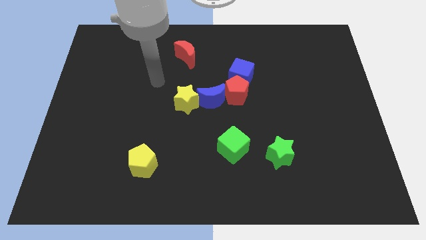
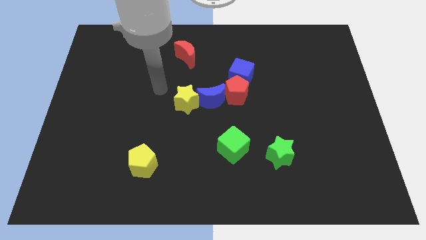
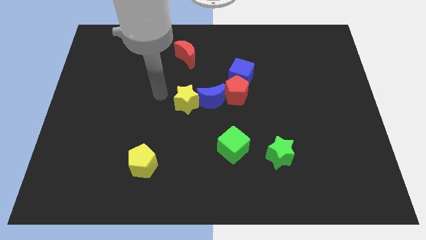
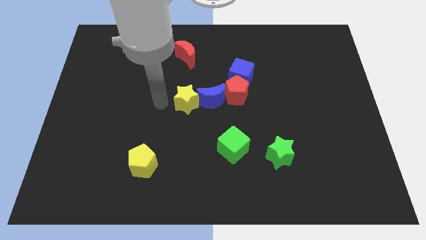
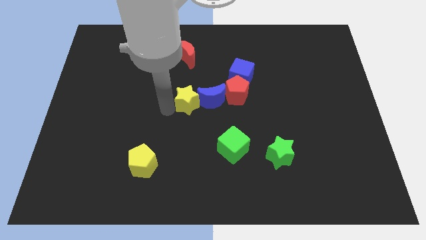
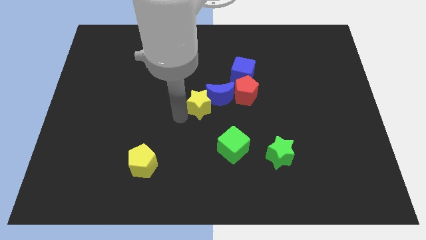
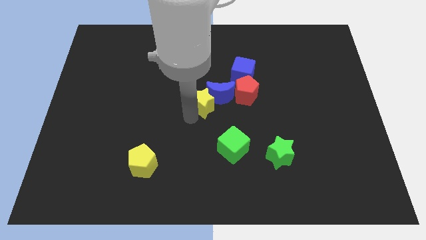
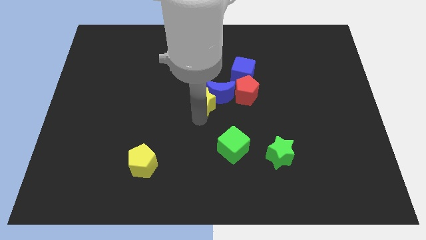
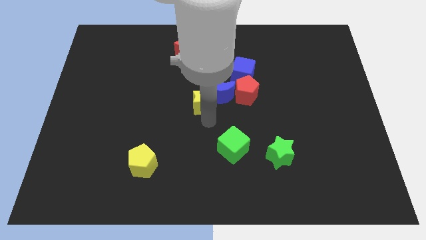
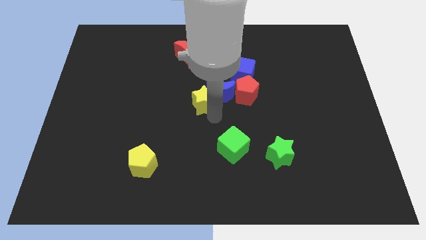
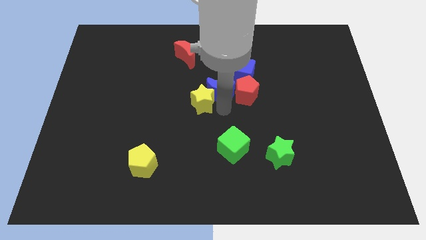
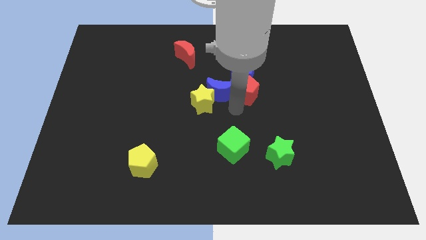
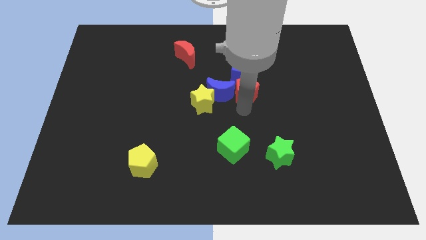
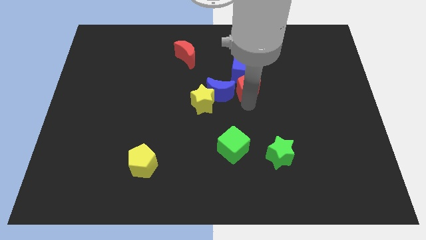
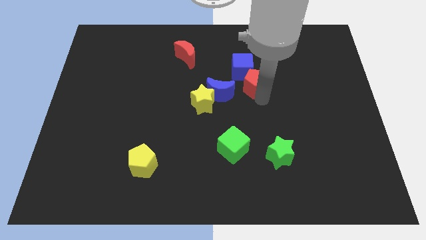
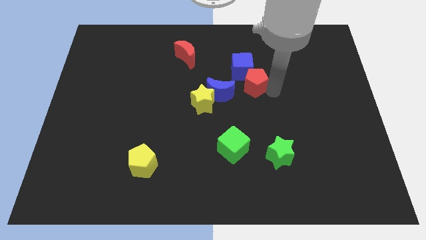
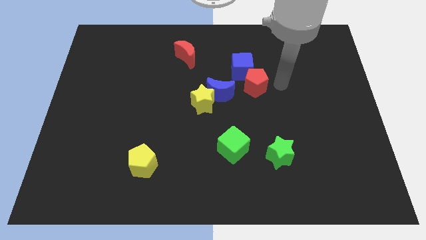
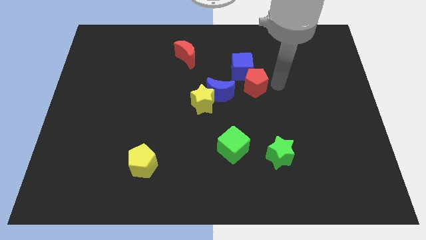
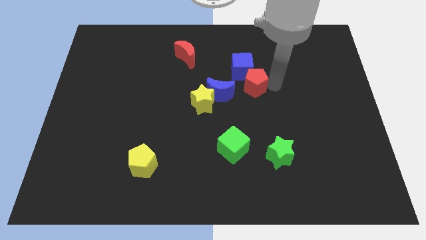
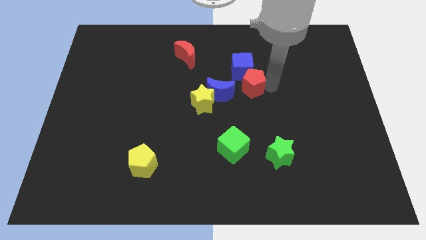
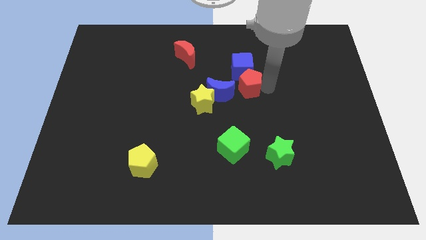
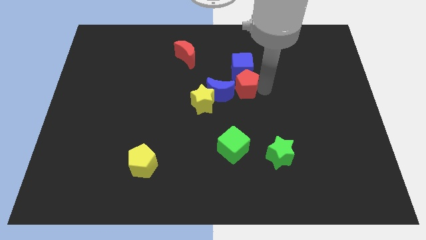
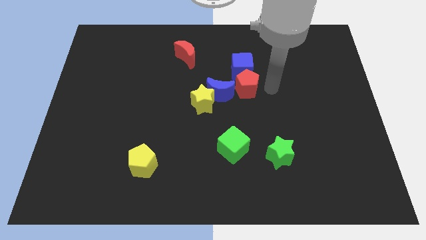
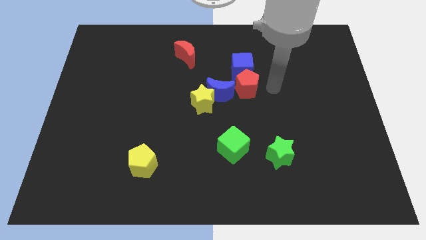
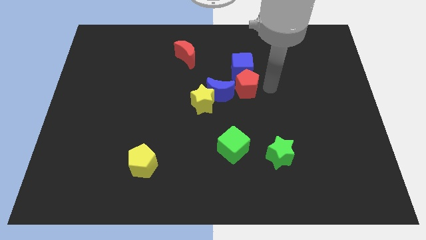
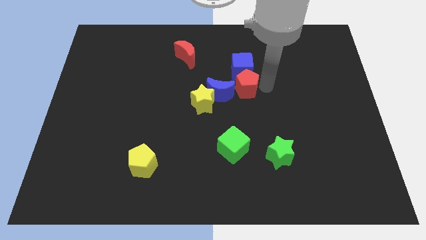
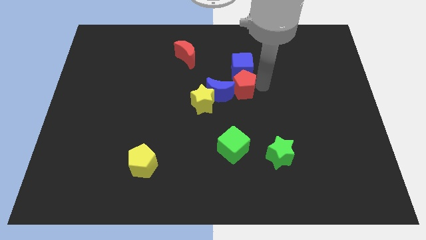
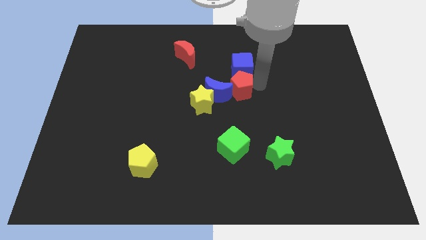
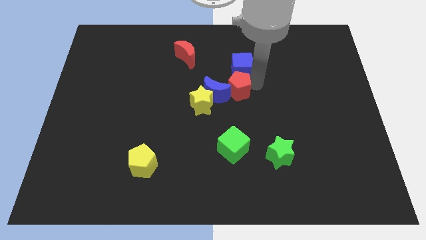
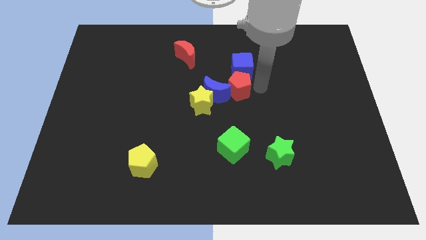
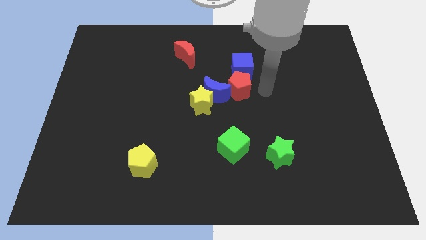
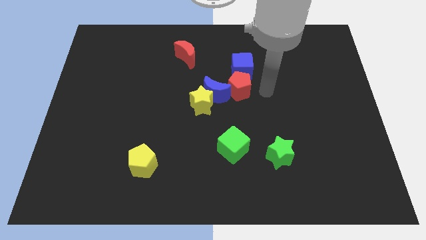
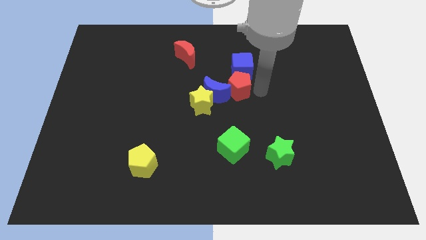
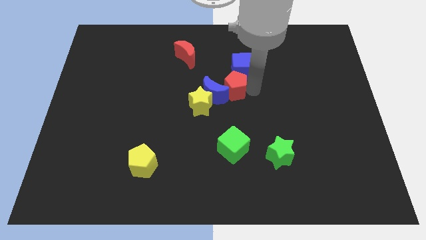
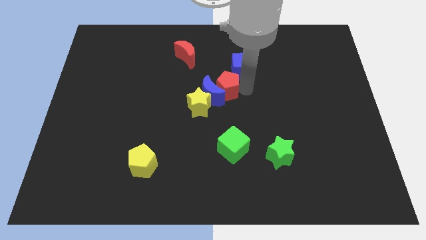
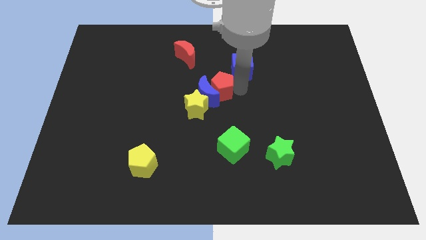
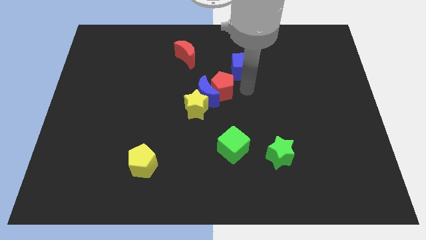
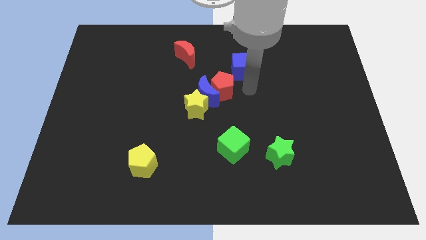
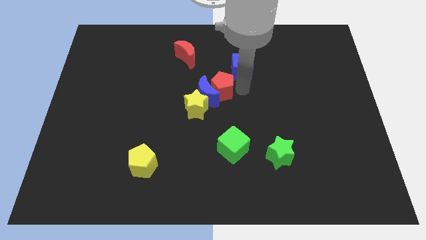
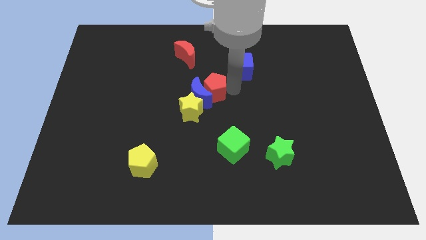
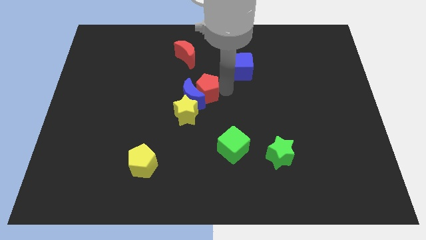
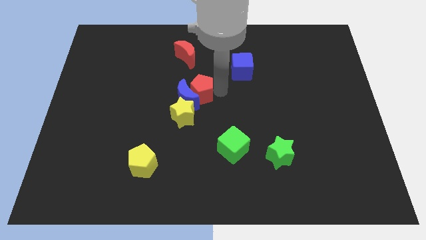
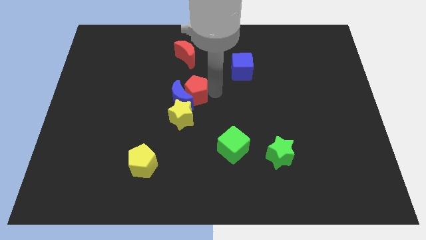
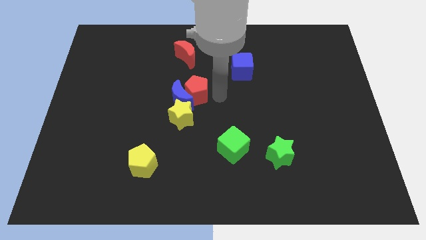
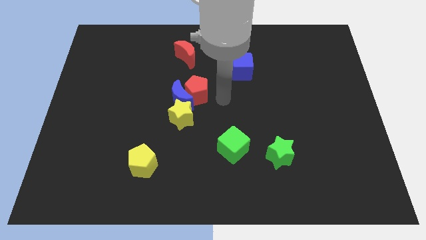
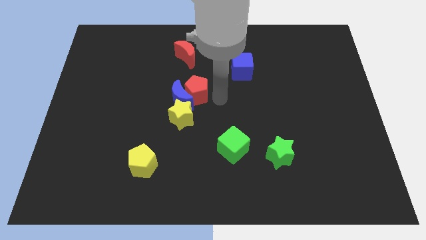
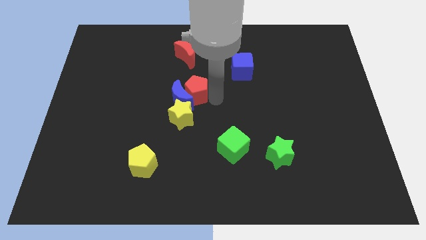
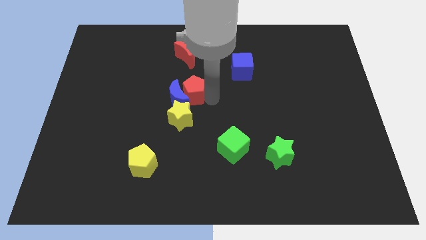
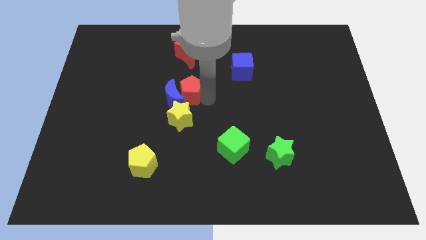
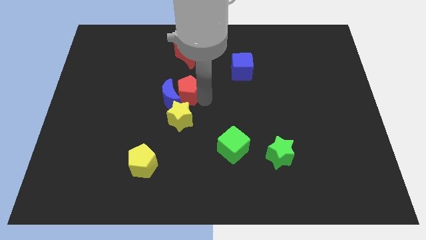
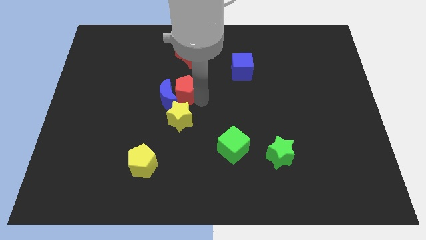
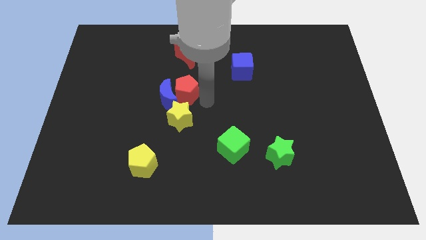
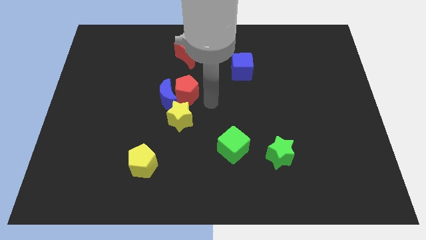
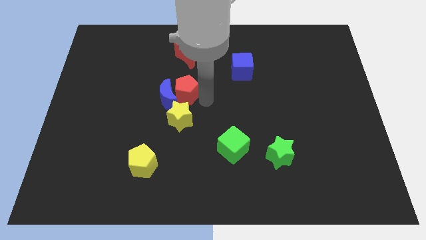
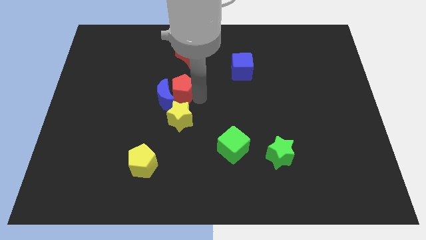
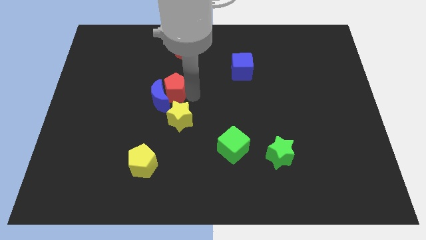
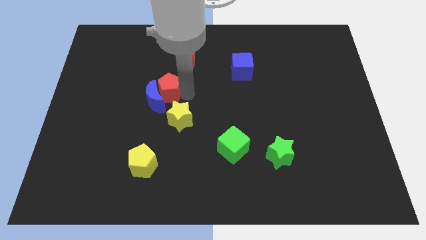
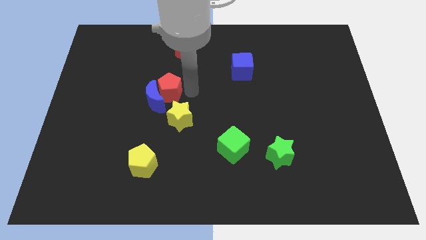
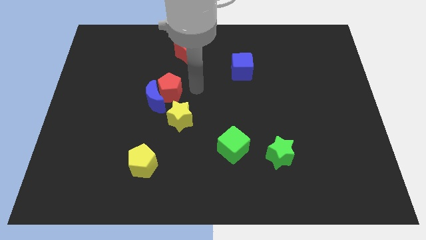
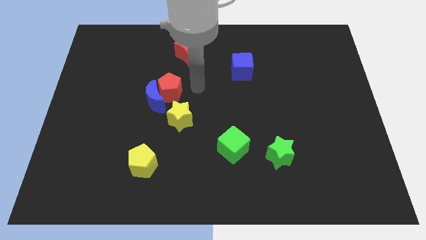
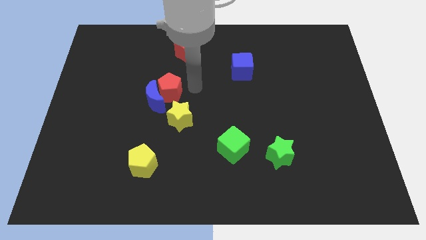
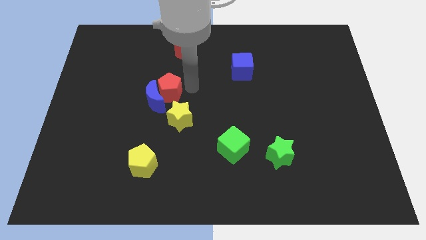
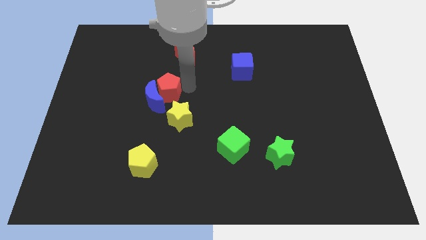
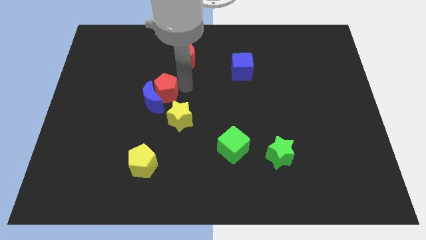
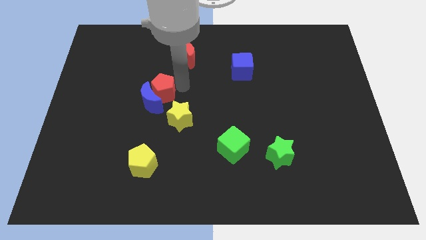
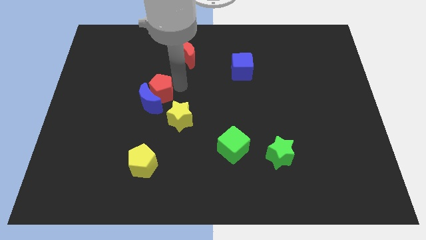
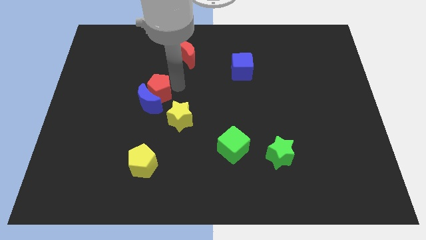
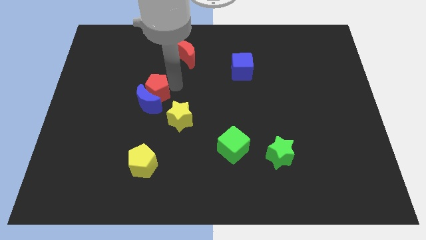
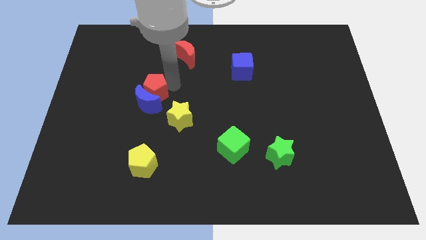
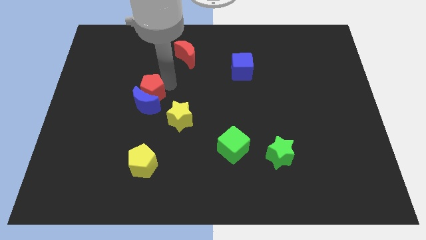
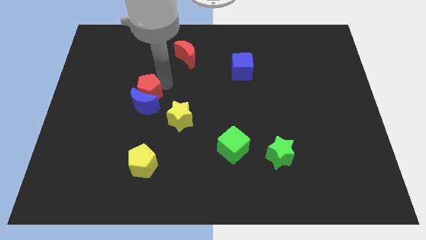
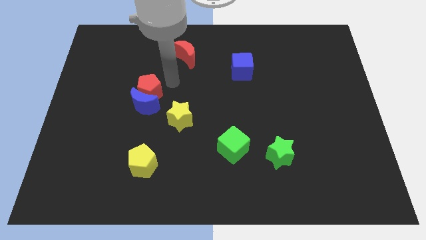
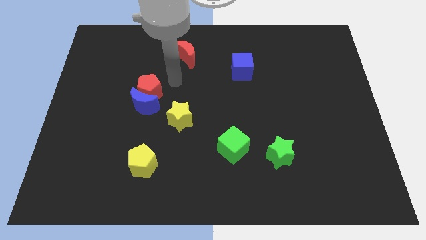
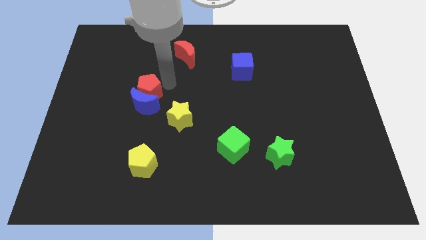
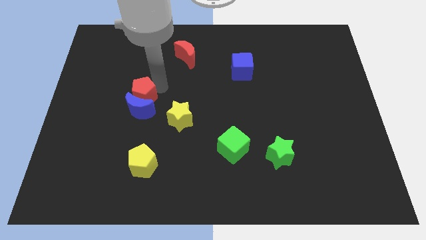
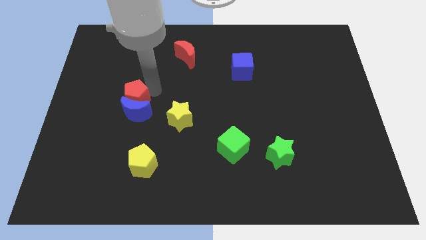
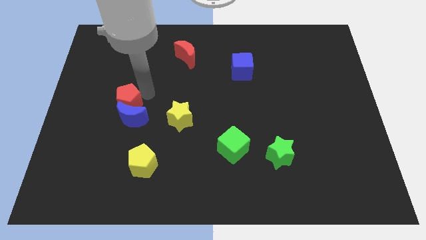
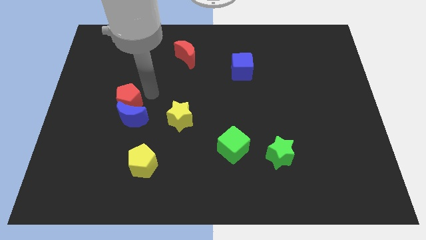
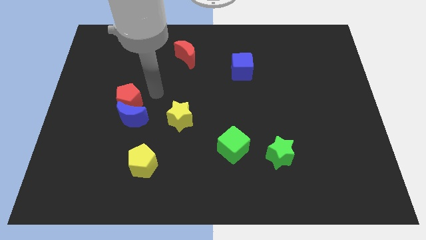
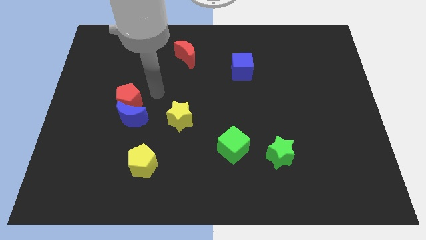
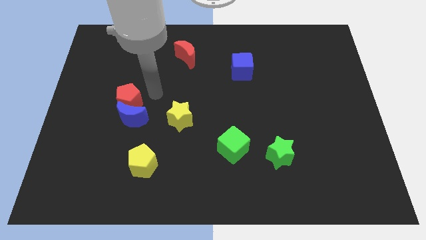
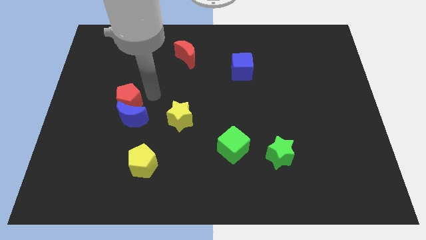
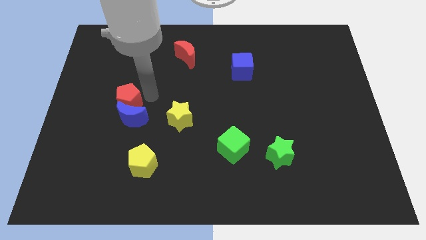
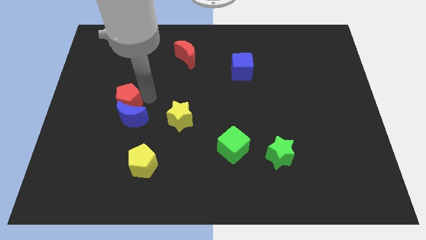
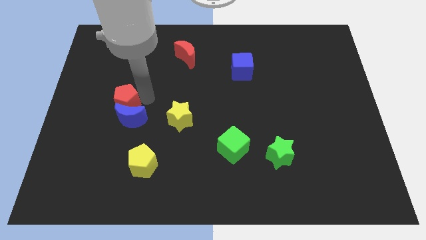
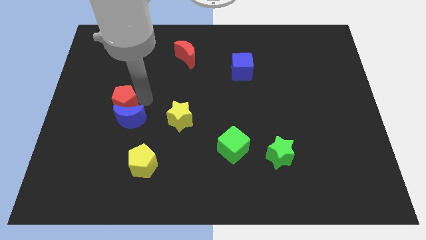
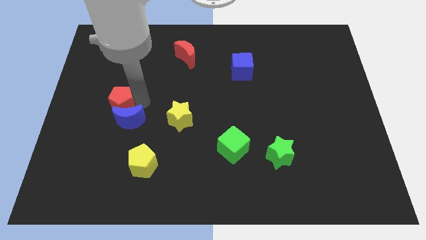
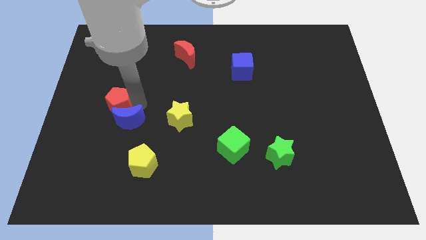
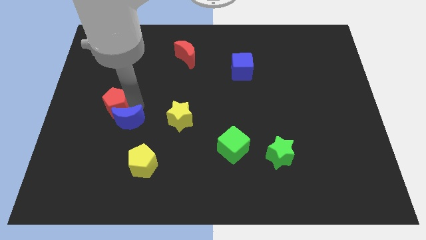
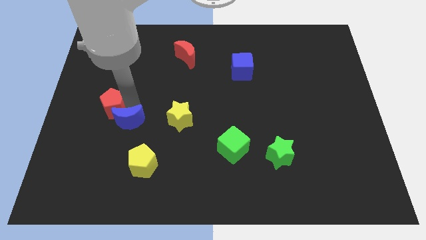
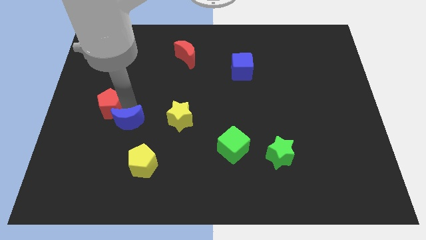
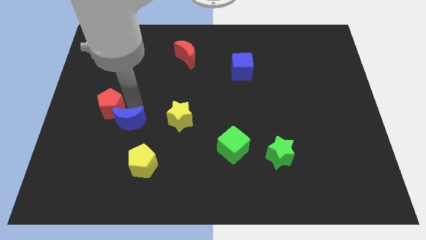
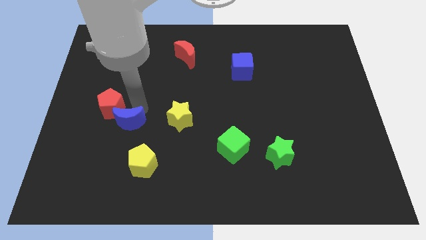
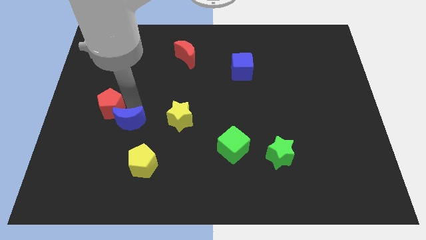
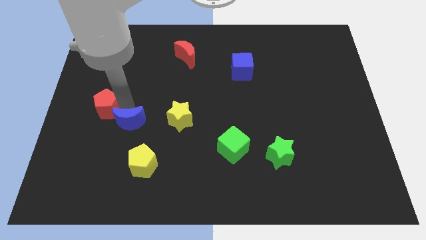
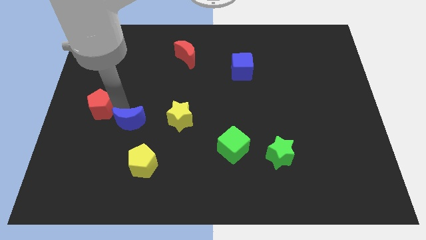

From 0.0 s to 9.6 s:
slide the red pentagon to the left side of the board
